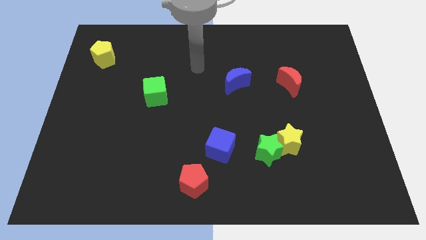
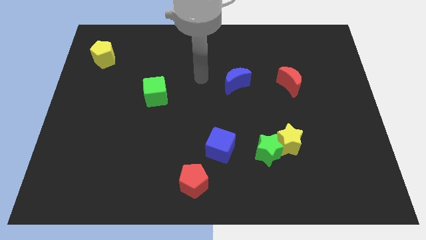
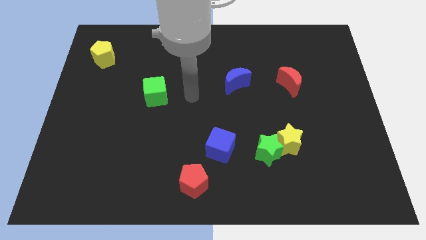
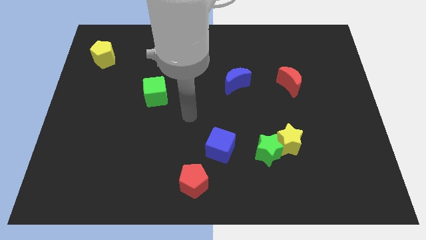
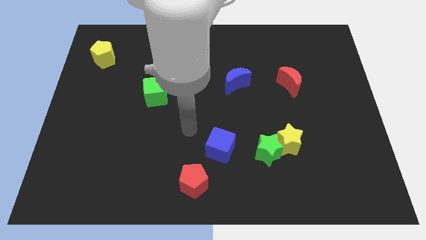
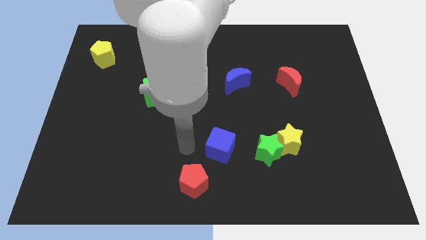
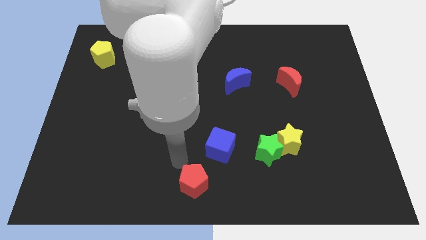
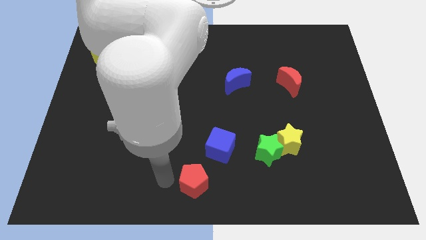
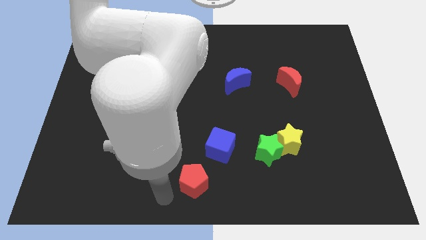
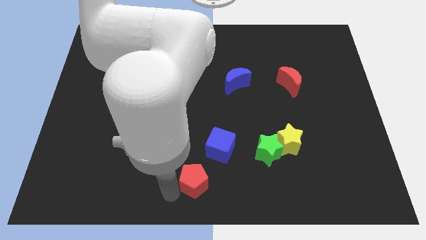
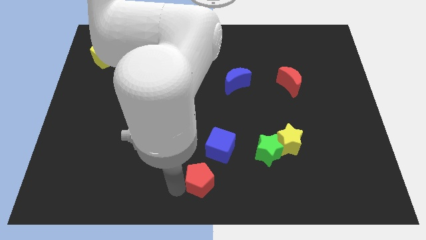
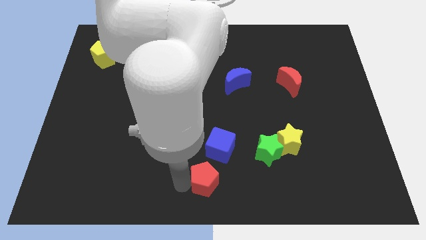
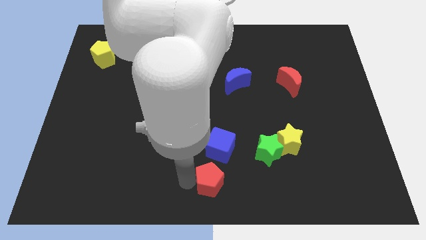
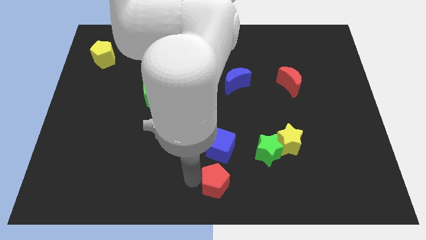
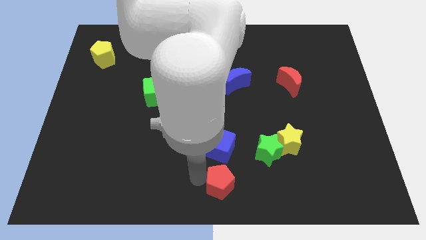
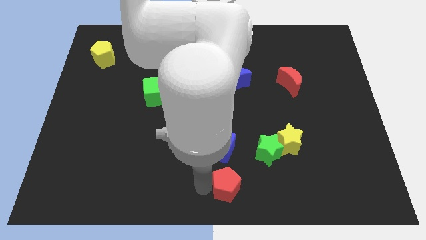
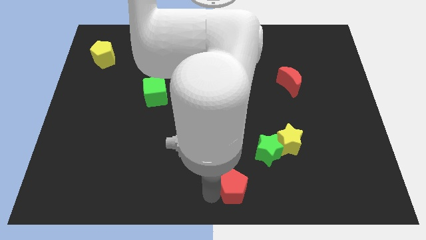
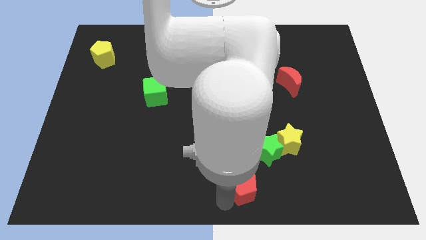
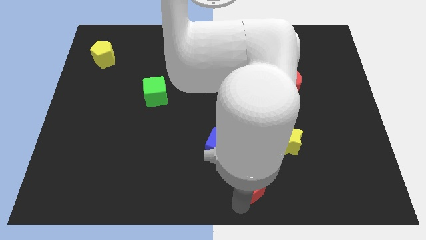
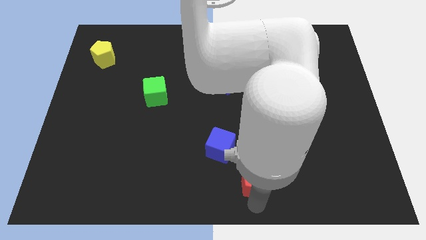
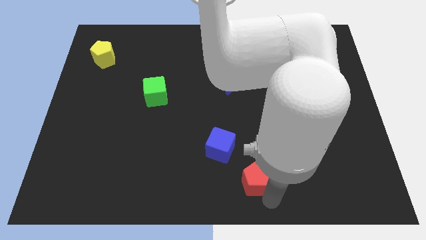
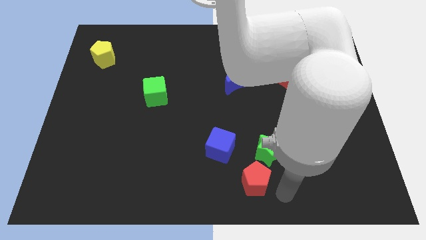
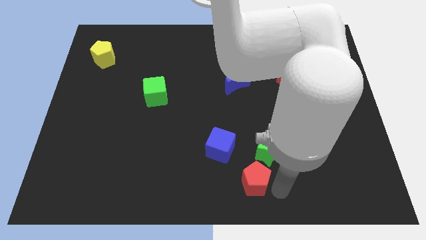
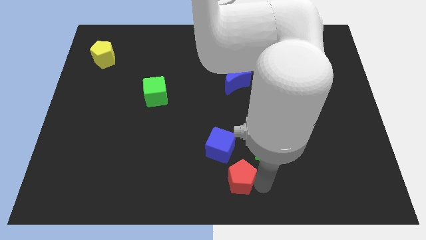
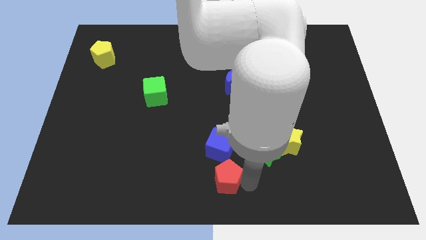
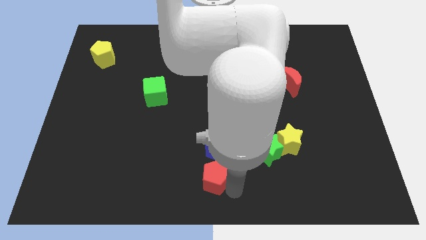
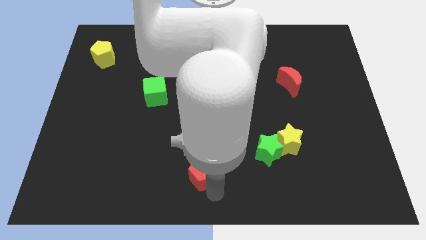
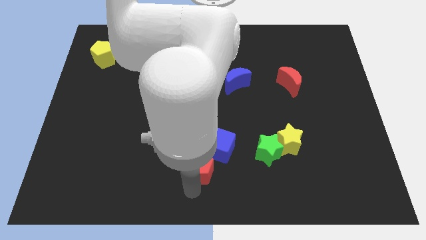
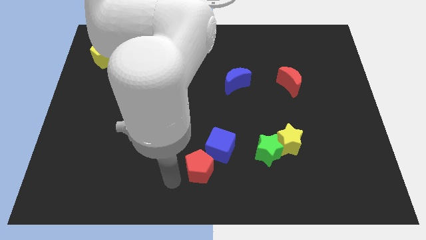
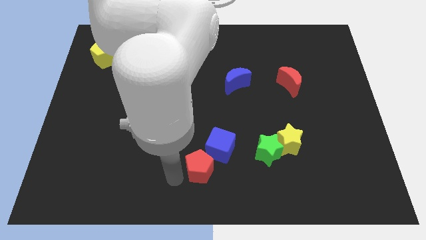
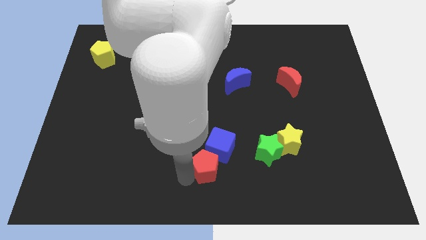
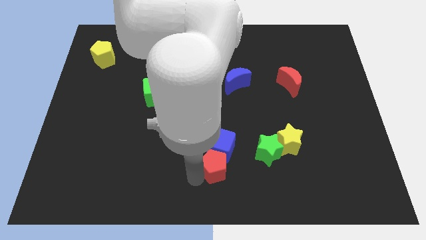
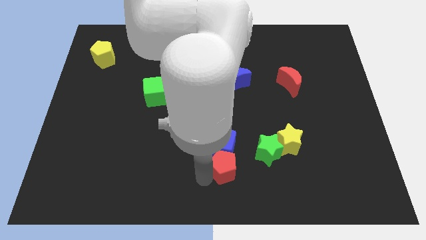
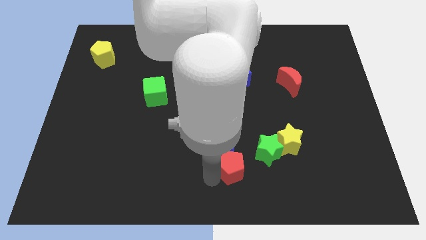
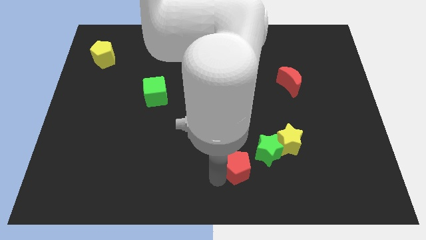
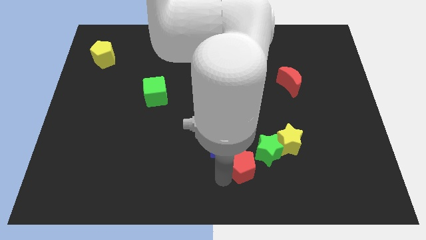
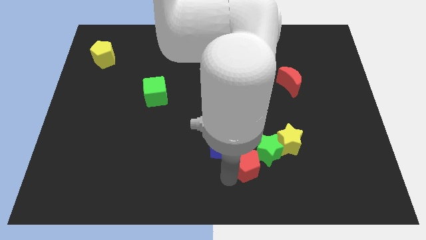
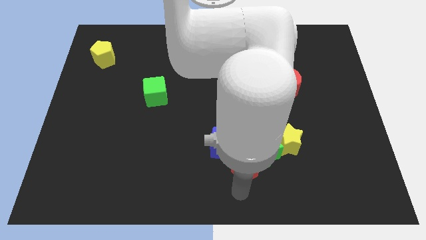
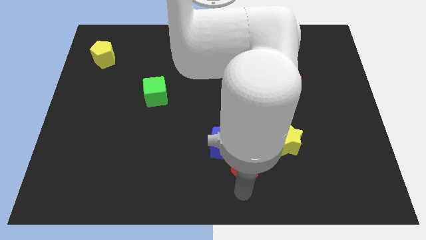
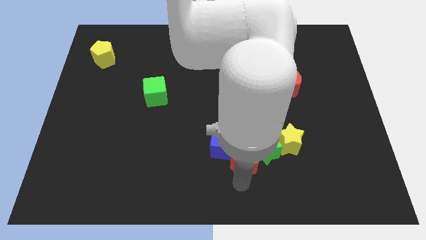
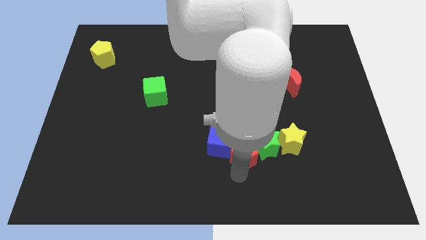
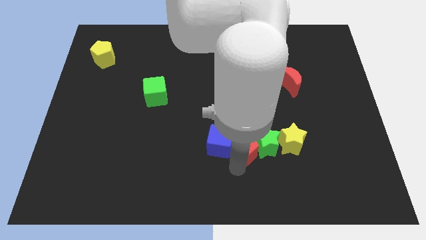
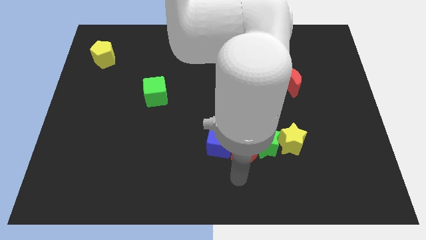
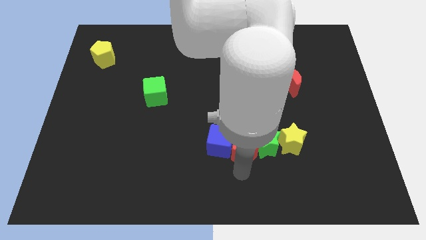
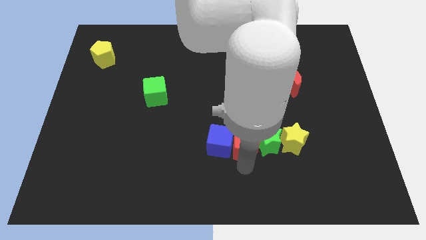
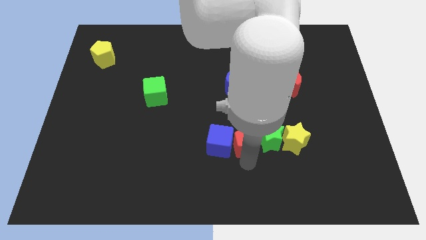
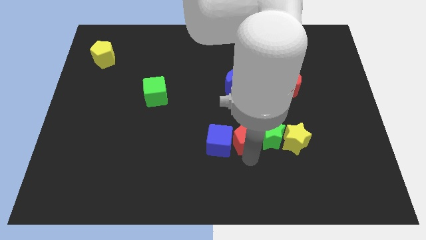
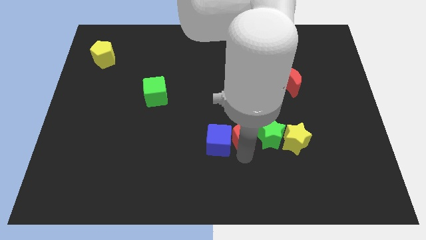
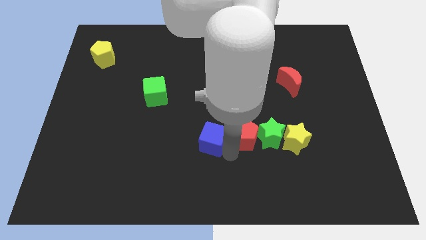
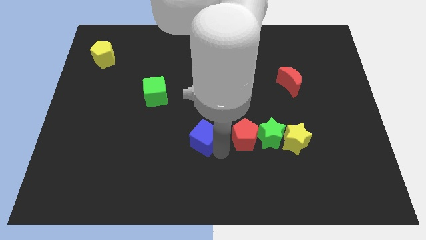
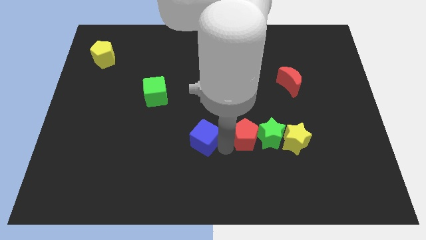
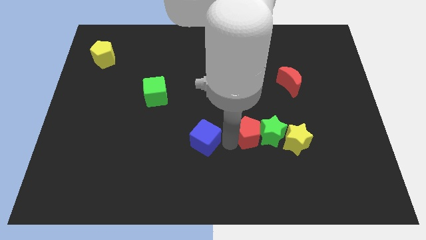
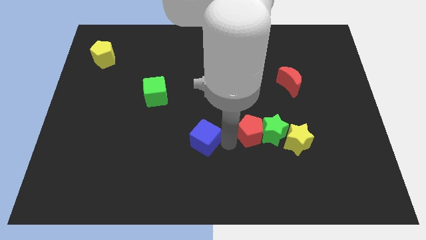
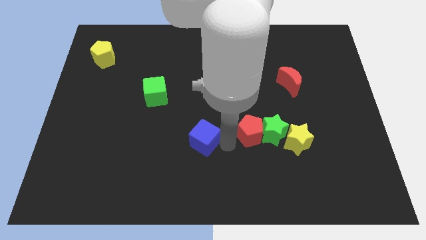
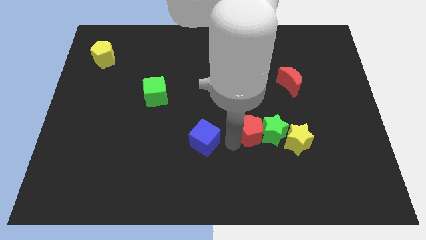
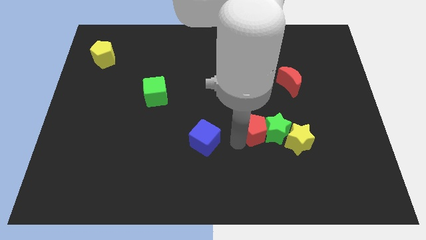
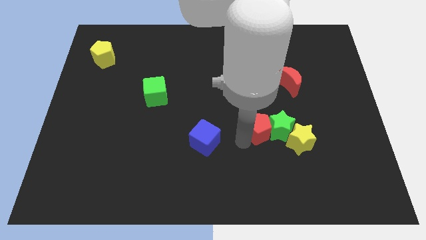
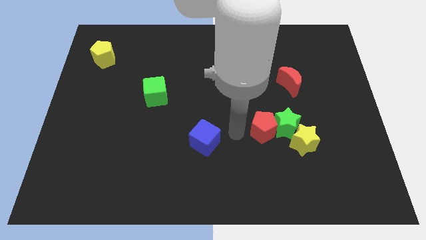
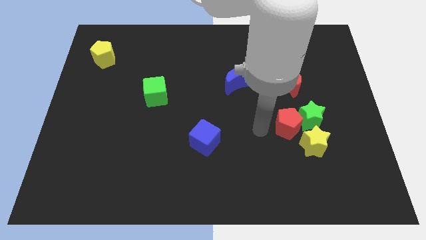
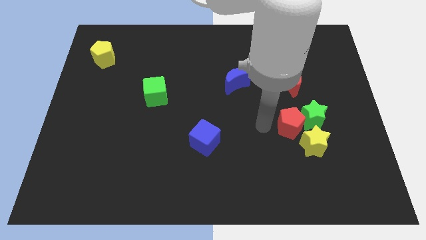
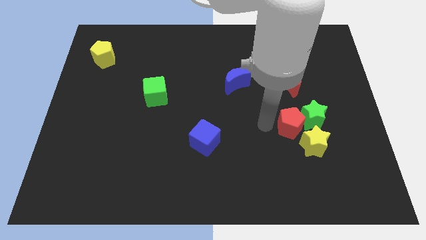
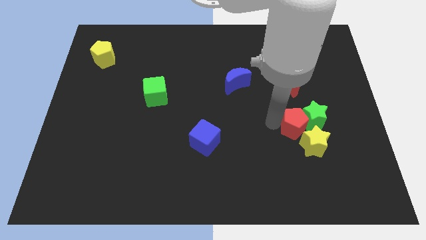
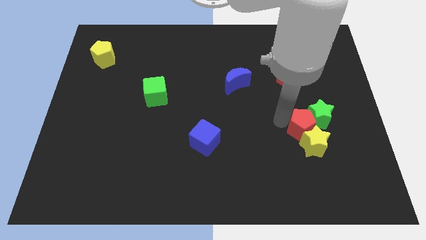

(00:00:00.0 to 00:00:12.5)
push the red pentagon to the top right of the yellow star

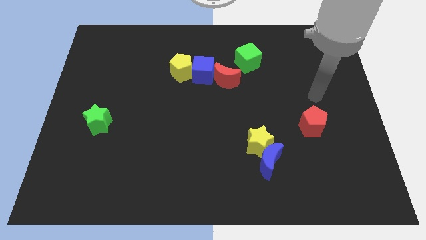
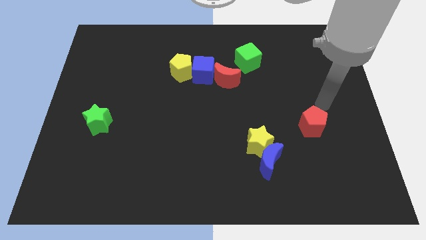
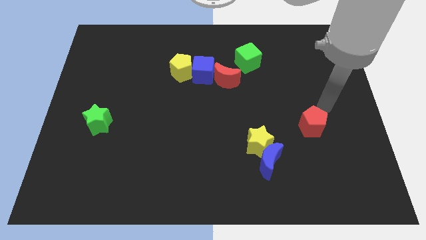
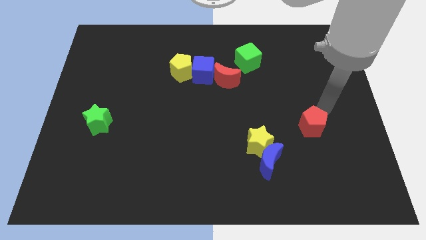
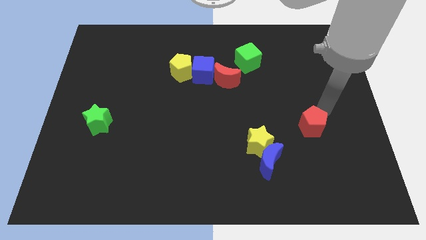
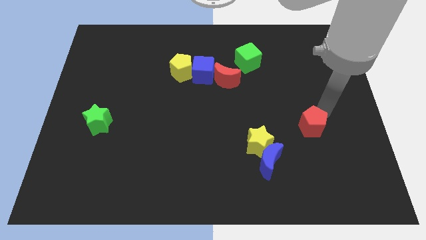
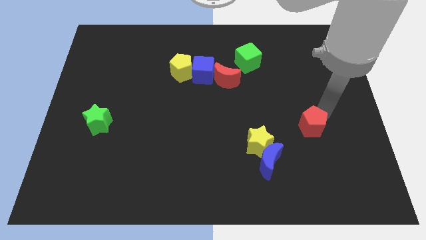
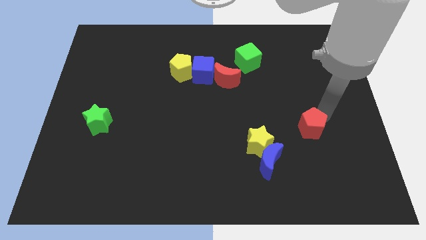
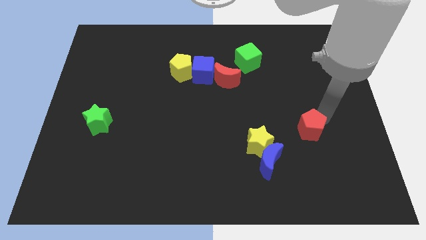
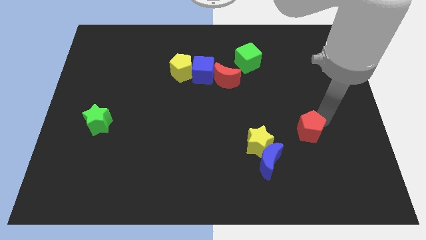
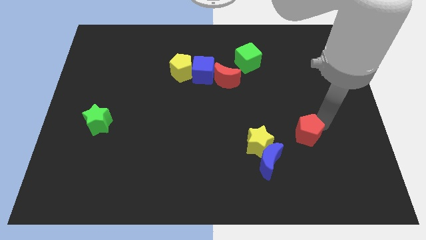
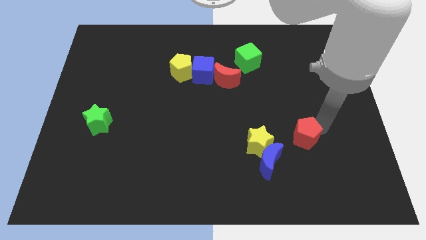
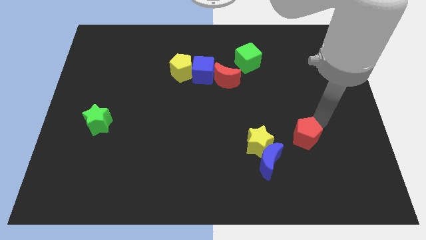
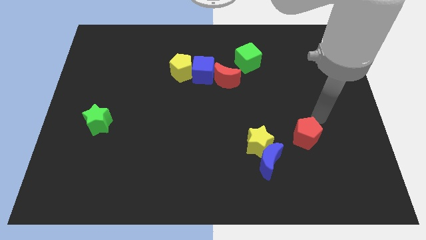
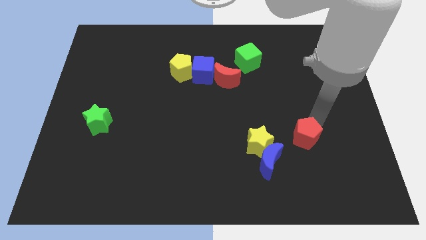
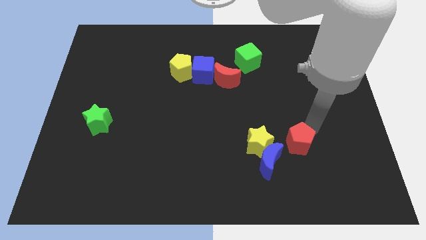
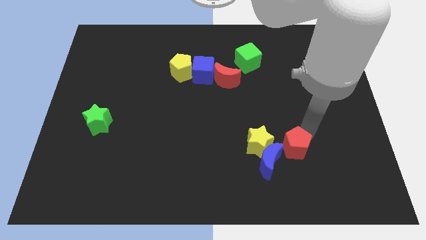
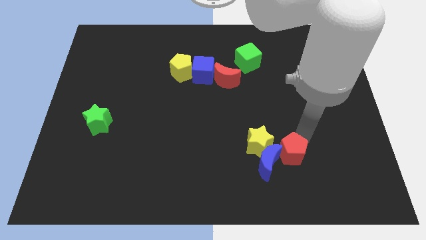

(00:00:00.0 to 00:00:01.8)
slide the red pentagon diagonally down and to the right of the yellow star
